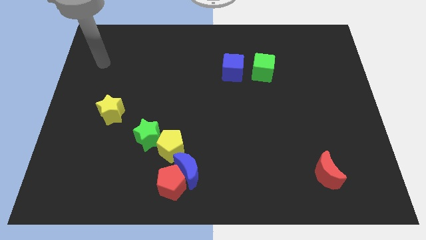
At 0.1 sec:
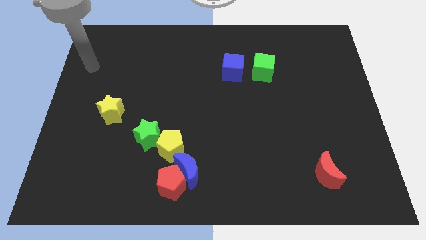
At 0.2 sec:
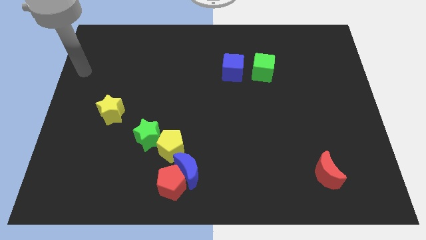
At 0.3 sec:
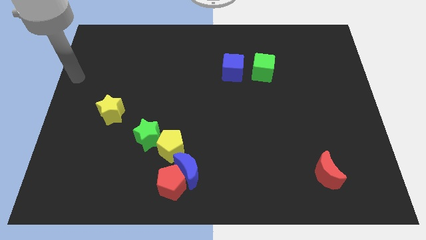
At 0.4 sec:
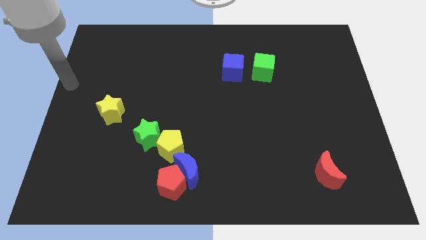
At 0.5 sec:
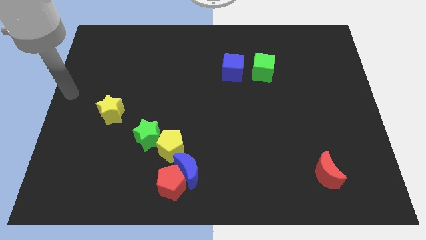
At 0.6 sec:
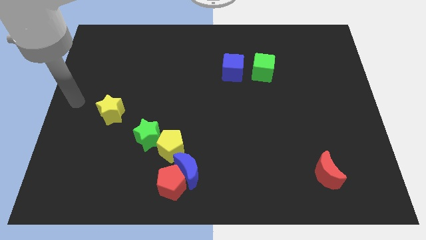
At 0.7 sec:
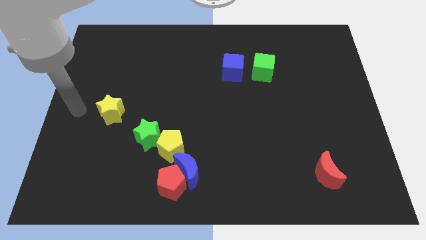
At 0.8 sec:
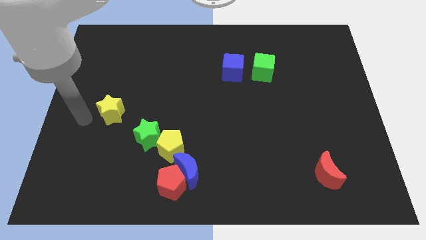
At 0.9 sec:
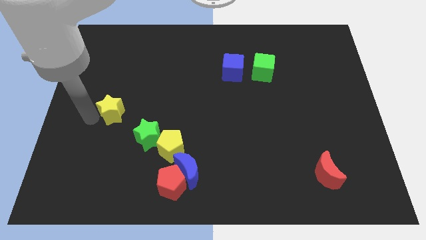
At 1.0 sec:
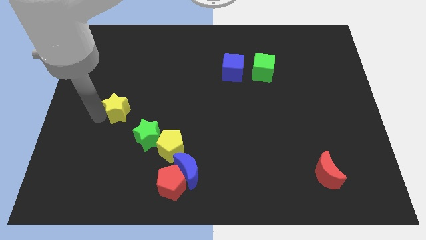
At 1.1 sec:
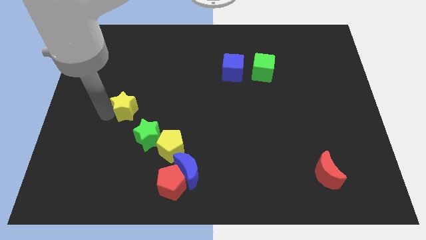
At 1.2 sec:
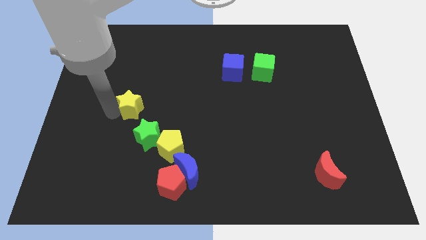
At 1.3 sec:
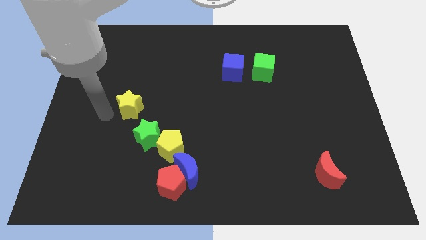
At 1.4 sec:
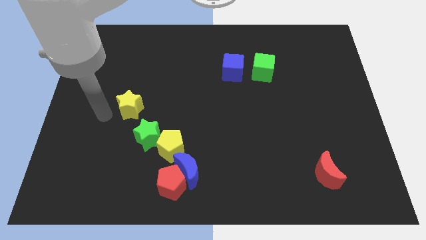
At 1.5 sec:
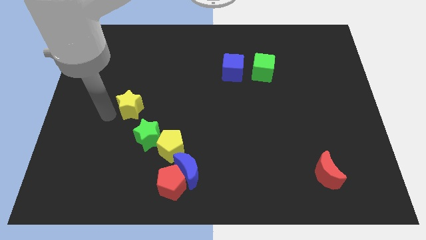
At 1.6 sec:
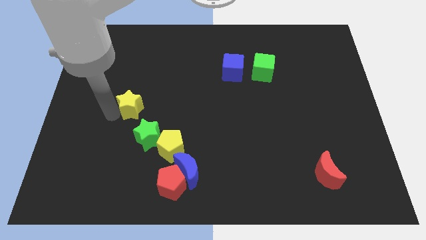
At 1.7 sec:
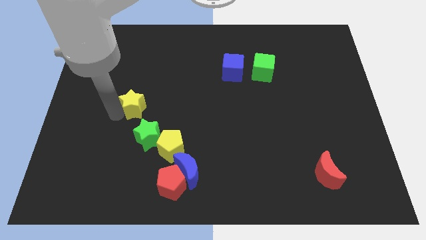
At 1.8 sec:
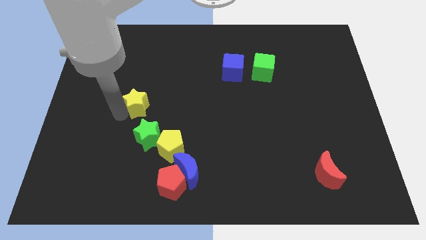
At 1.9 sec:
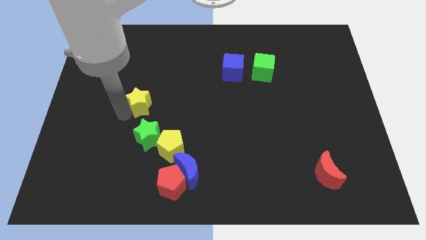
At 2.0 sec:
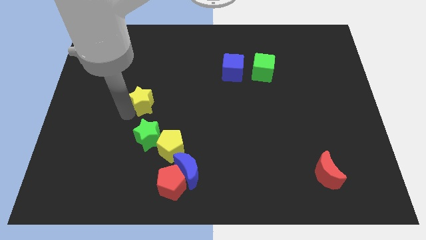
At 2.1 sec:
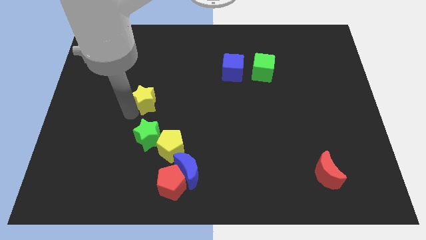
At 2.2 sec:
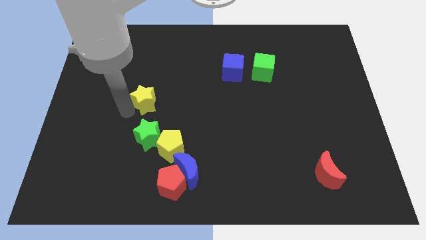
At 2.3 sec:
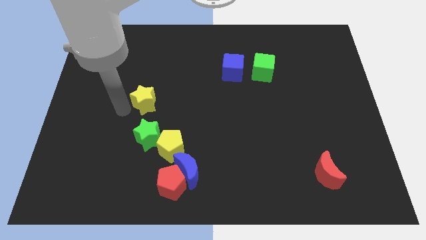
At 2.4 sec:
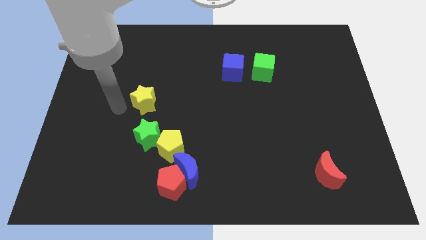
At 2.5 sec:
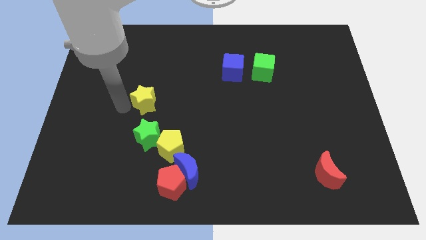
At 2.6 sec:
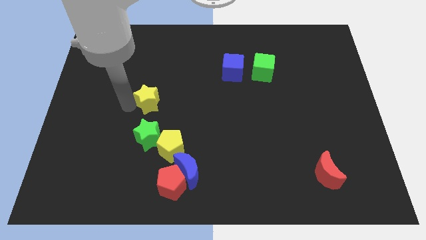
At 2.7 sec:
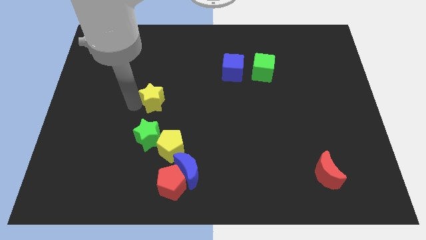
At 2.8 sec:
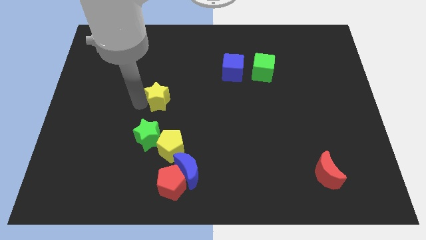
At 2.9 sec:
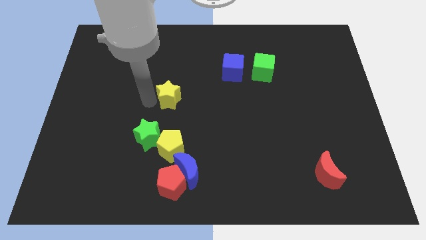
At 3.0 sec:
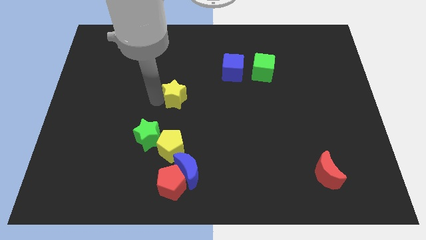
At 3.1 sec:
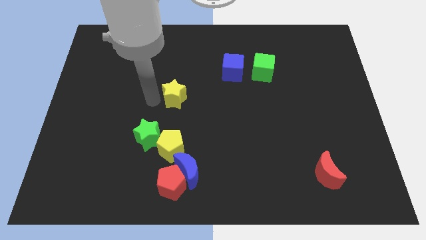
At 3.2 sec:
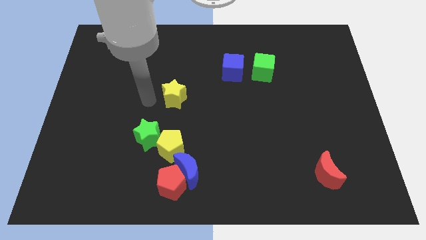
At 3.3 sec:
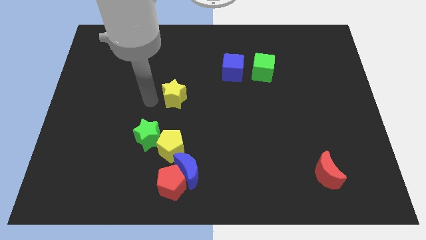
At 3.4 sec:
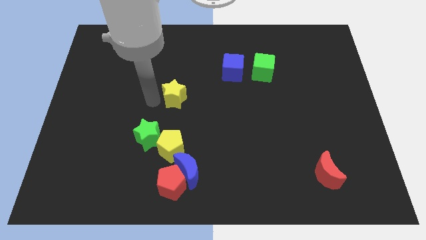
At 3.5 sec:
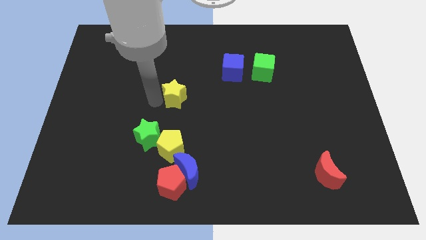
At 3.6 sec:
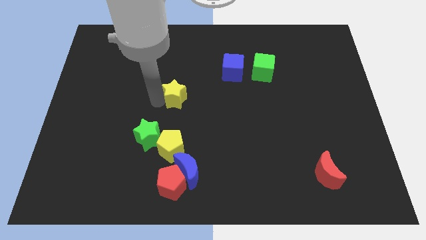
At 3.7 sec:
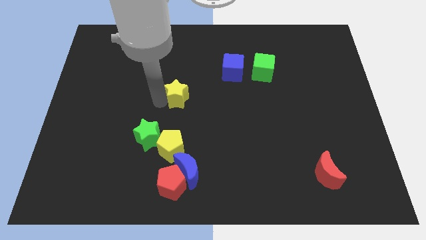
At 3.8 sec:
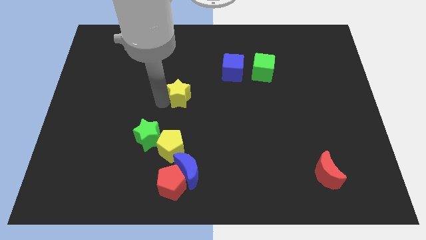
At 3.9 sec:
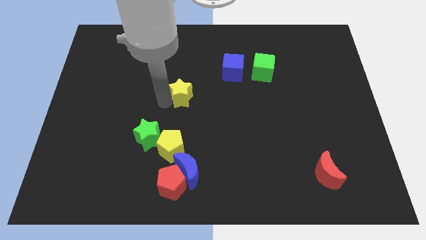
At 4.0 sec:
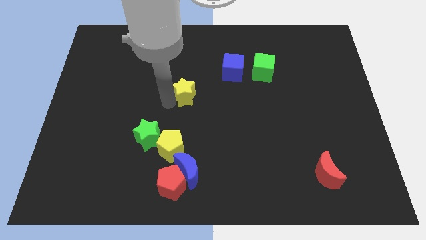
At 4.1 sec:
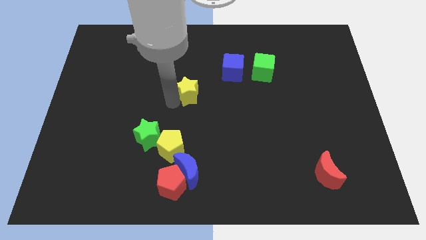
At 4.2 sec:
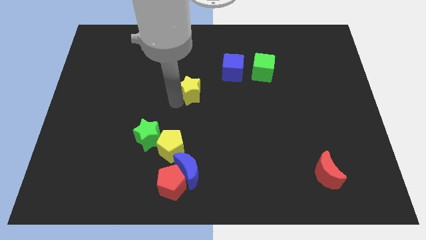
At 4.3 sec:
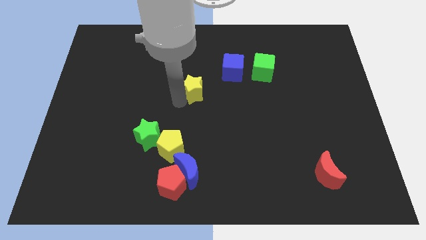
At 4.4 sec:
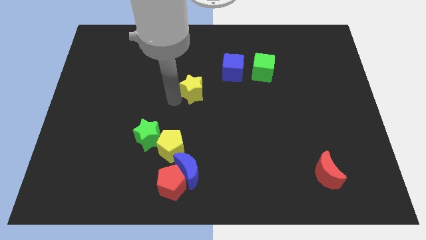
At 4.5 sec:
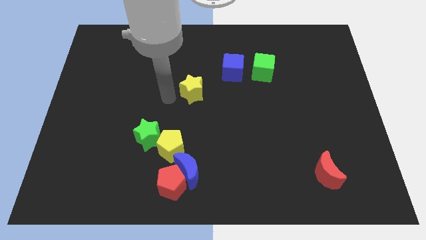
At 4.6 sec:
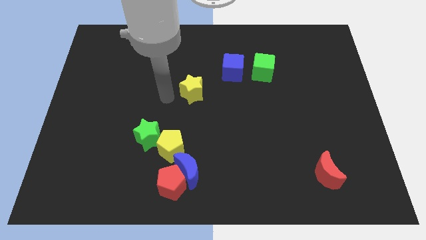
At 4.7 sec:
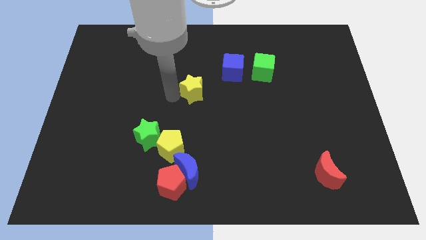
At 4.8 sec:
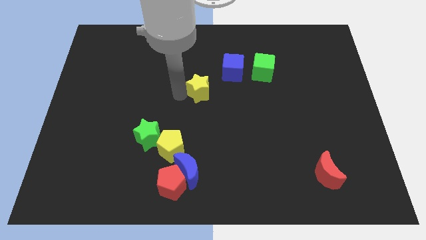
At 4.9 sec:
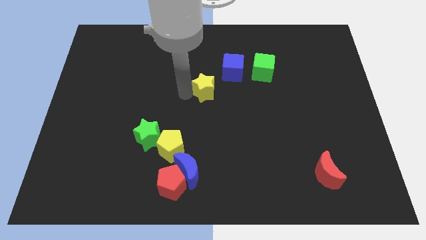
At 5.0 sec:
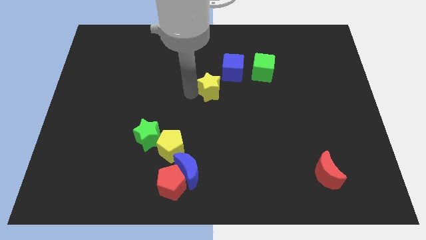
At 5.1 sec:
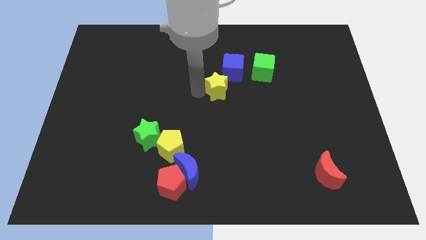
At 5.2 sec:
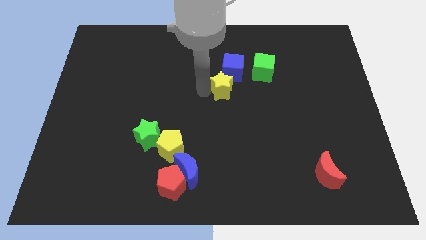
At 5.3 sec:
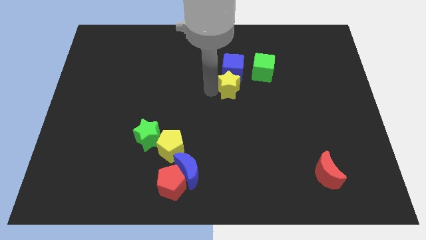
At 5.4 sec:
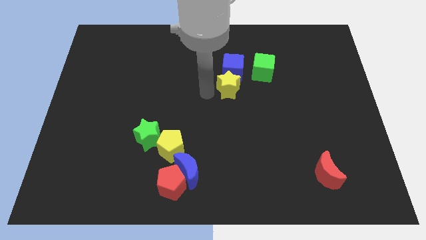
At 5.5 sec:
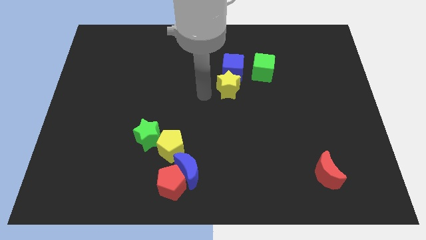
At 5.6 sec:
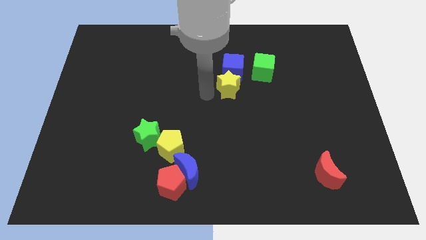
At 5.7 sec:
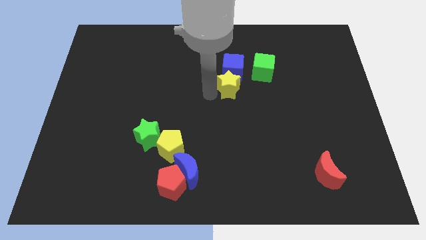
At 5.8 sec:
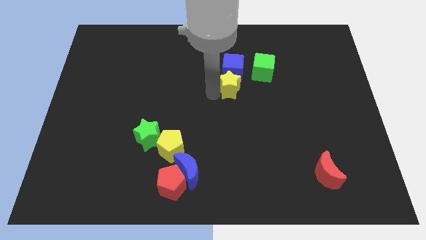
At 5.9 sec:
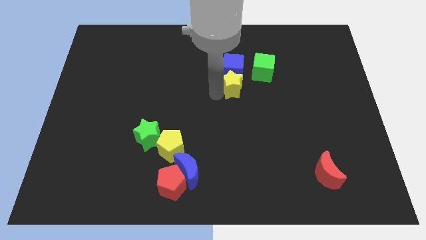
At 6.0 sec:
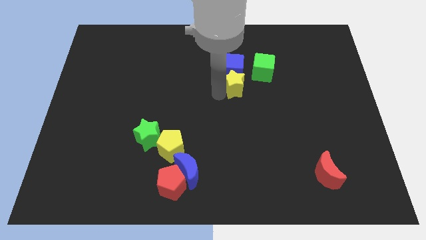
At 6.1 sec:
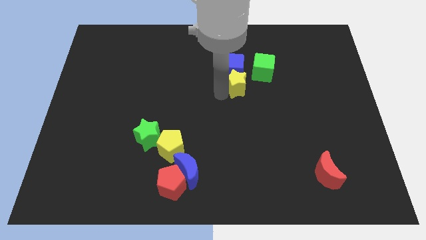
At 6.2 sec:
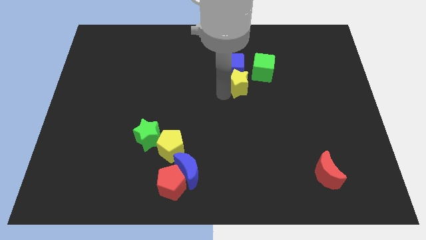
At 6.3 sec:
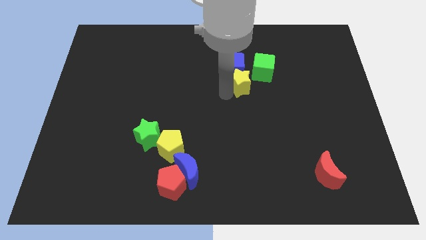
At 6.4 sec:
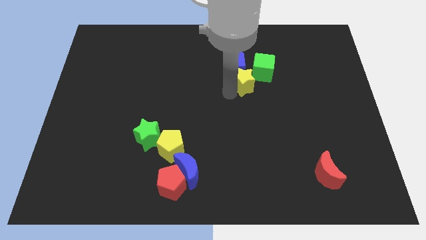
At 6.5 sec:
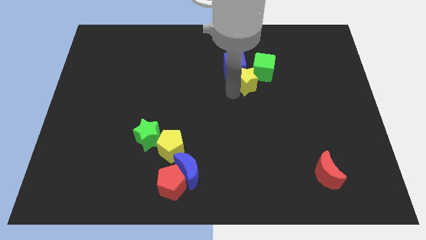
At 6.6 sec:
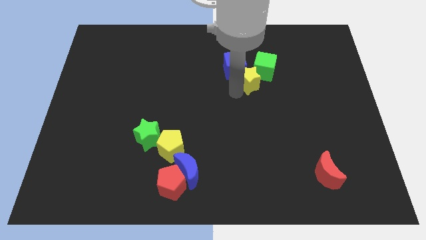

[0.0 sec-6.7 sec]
put the yellow star towards the green cube

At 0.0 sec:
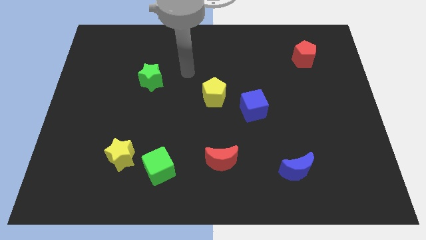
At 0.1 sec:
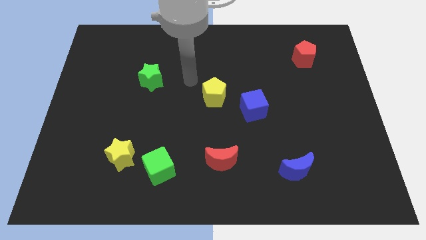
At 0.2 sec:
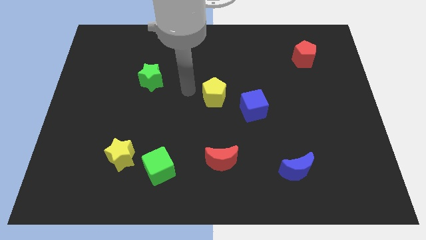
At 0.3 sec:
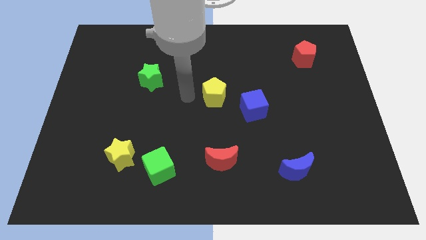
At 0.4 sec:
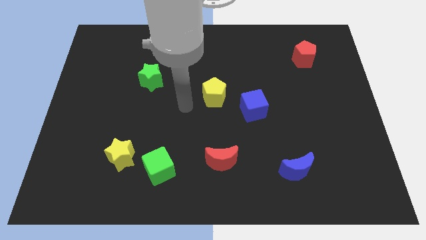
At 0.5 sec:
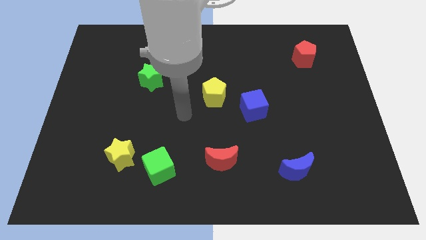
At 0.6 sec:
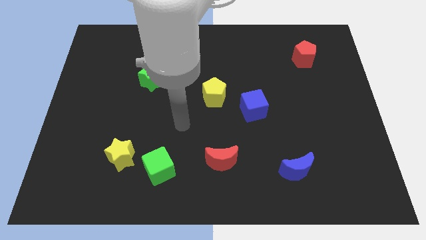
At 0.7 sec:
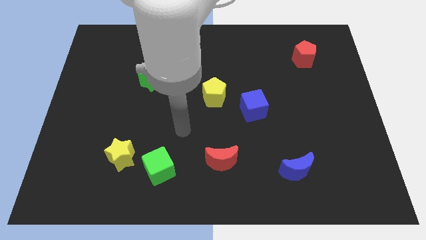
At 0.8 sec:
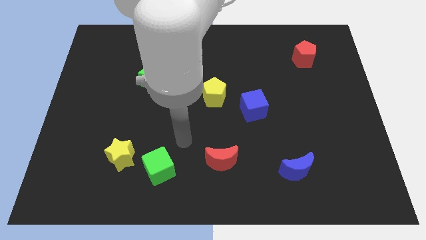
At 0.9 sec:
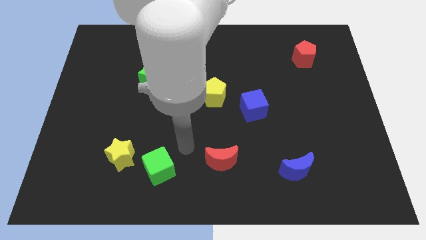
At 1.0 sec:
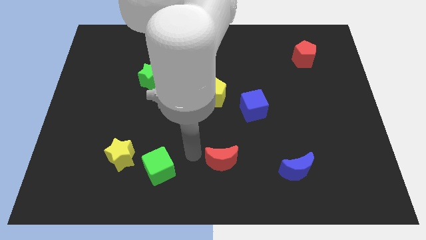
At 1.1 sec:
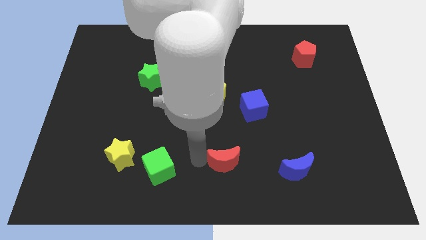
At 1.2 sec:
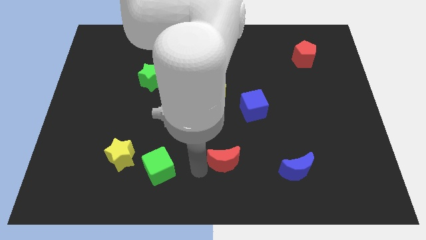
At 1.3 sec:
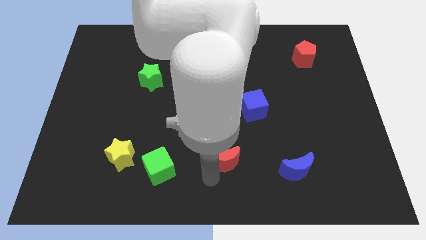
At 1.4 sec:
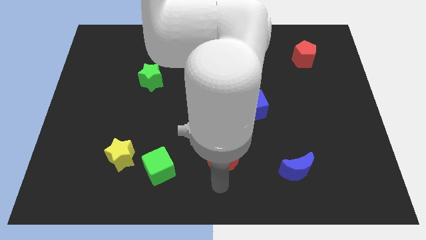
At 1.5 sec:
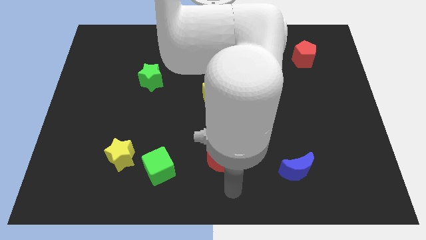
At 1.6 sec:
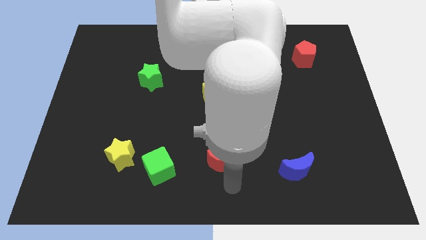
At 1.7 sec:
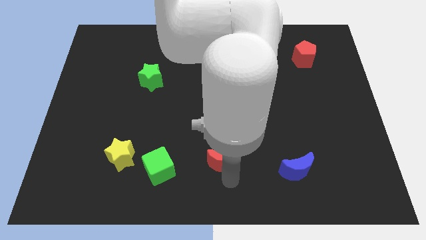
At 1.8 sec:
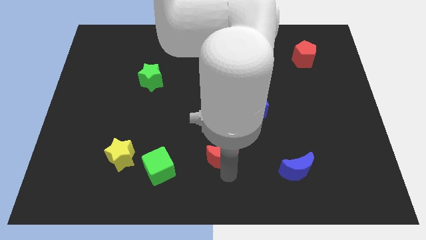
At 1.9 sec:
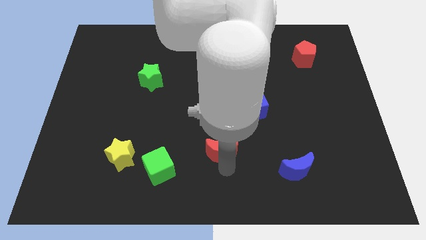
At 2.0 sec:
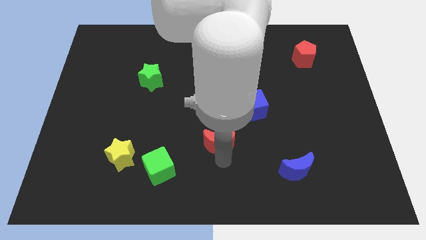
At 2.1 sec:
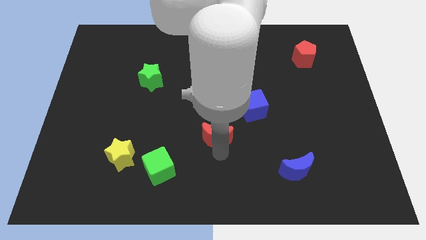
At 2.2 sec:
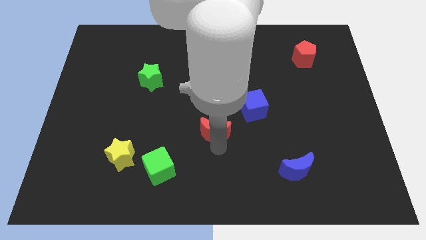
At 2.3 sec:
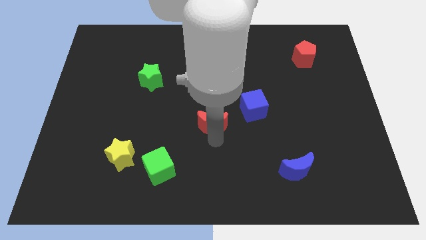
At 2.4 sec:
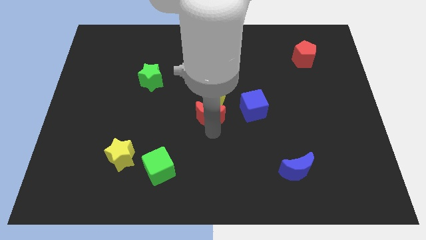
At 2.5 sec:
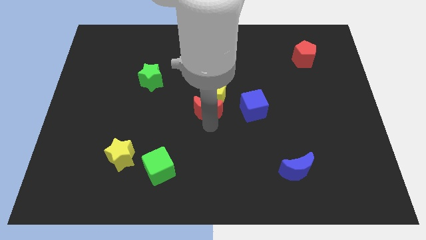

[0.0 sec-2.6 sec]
move the red moon close to the yellow pentagon
